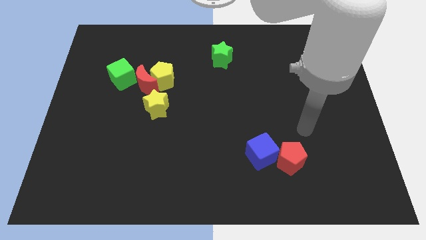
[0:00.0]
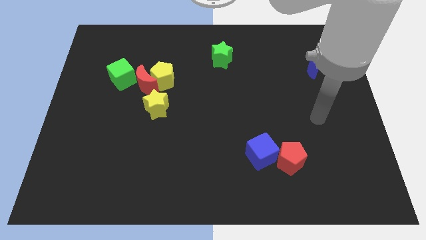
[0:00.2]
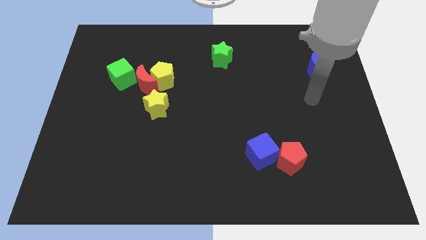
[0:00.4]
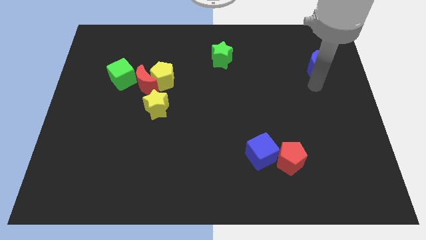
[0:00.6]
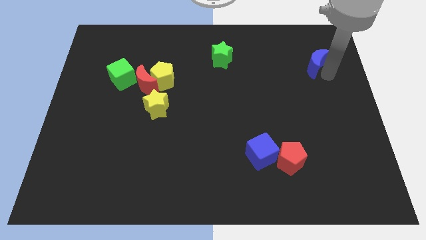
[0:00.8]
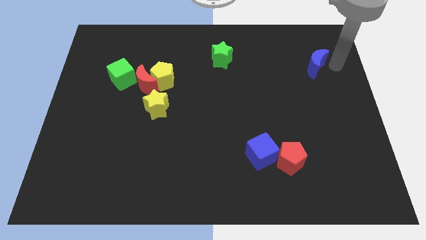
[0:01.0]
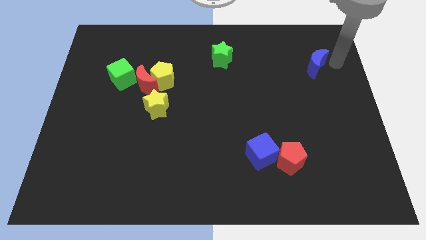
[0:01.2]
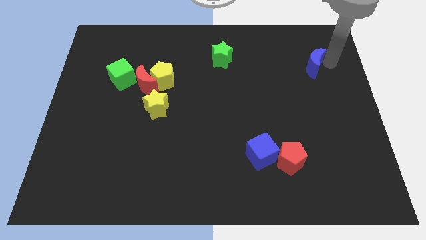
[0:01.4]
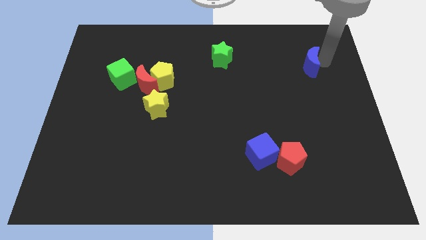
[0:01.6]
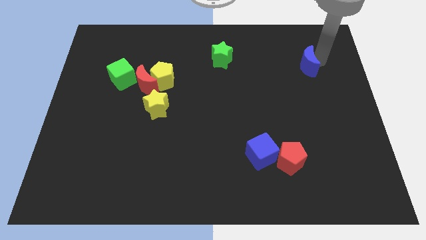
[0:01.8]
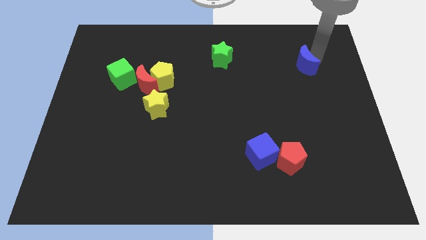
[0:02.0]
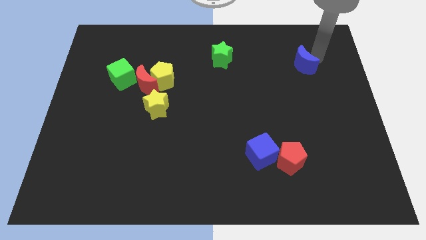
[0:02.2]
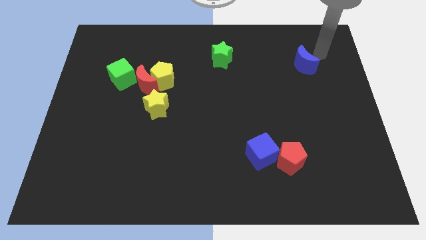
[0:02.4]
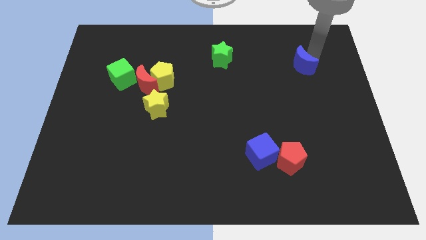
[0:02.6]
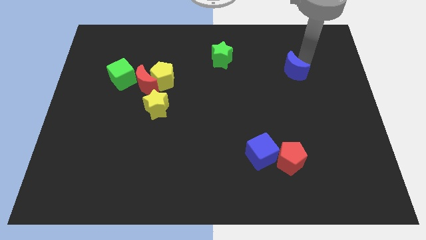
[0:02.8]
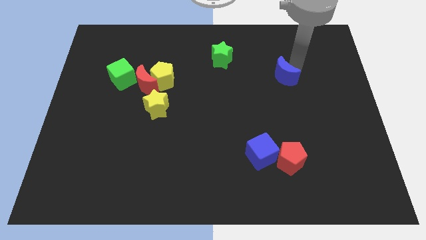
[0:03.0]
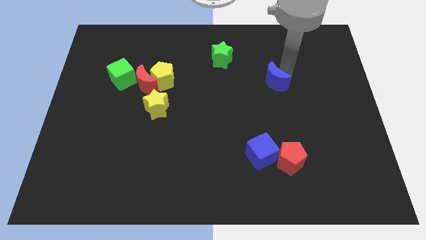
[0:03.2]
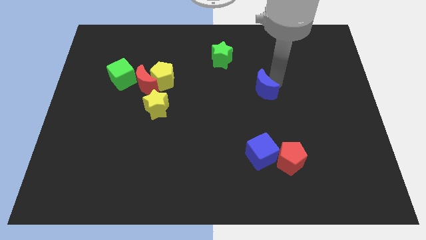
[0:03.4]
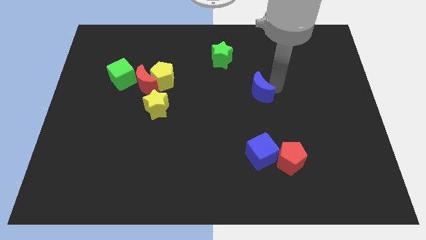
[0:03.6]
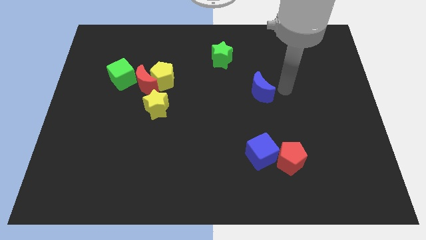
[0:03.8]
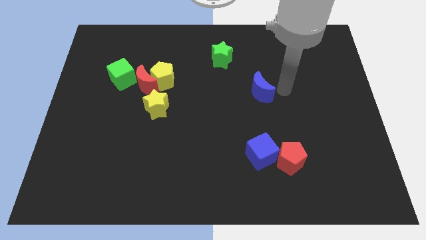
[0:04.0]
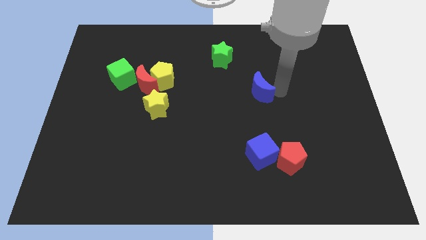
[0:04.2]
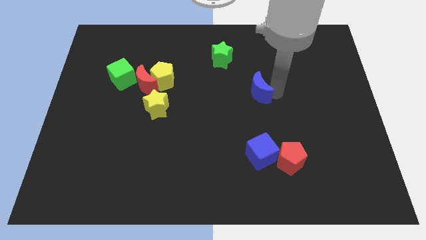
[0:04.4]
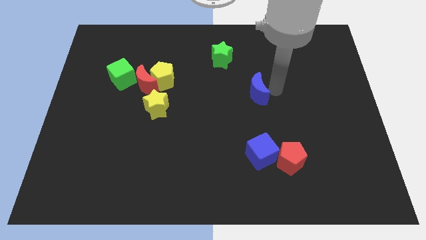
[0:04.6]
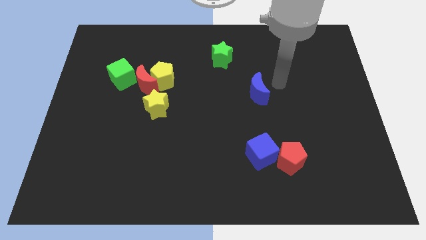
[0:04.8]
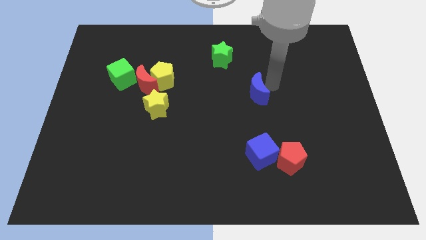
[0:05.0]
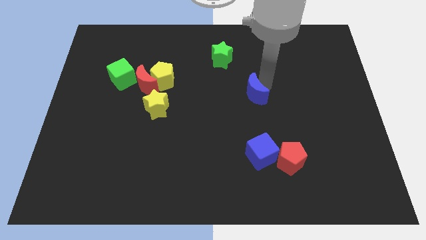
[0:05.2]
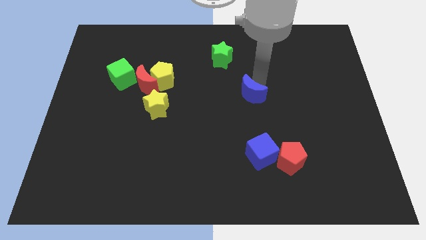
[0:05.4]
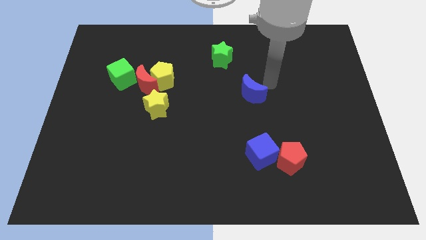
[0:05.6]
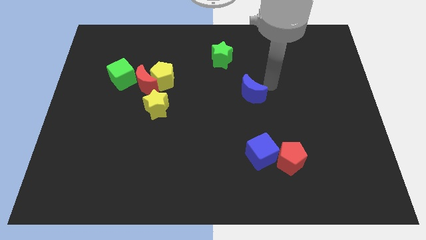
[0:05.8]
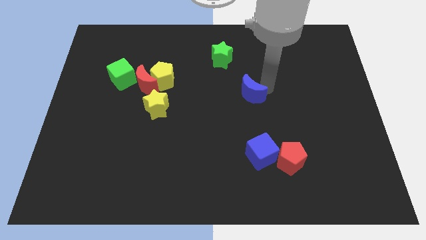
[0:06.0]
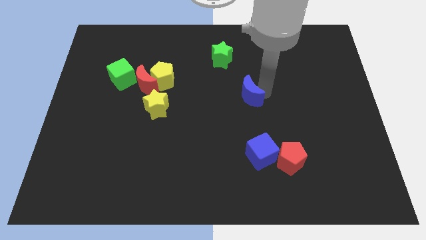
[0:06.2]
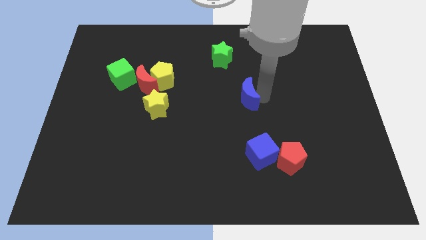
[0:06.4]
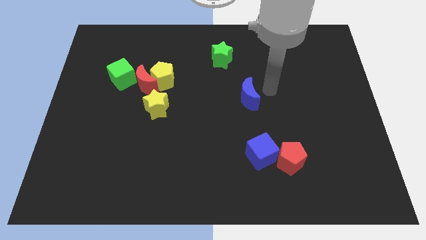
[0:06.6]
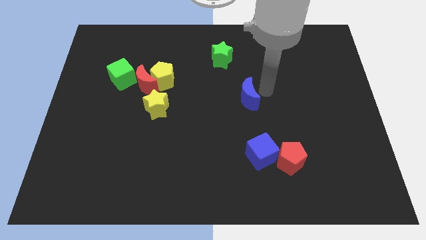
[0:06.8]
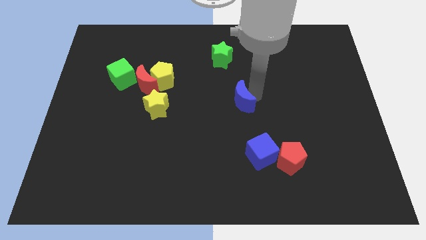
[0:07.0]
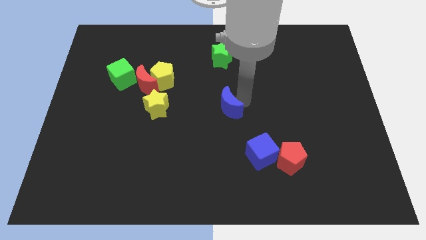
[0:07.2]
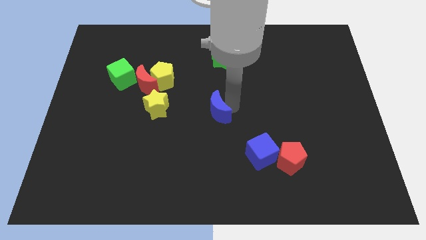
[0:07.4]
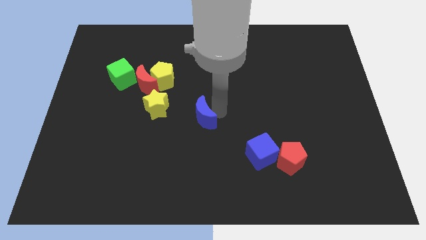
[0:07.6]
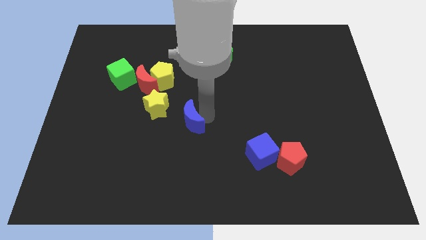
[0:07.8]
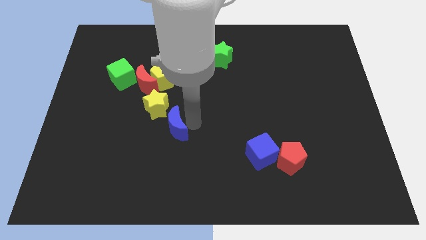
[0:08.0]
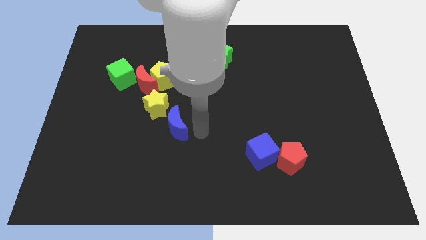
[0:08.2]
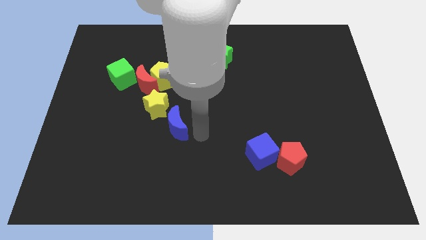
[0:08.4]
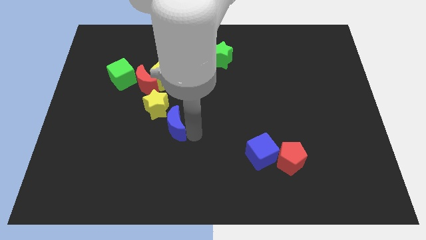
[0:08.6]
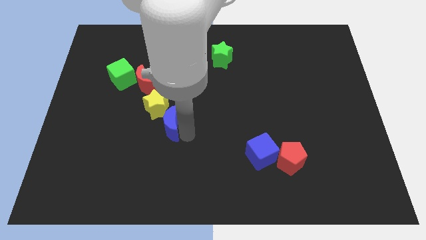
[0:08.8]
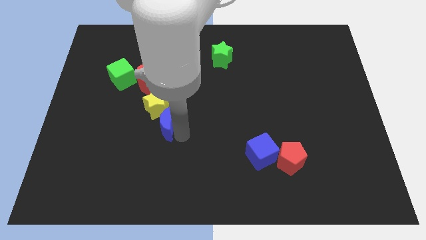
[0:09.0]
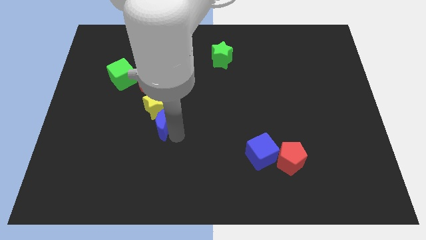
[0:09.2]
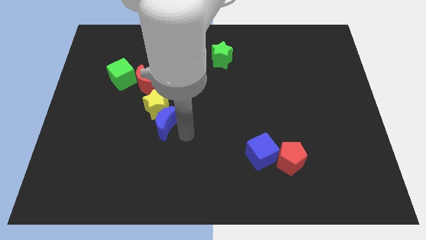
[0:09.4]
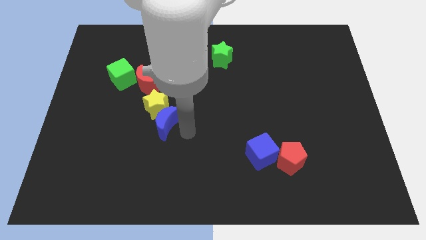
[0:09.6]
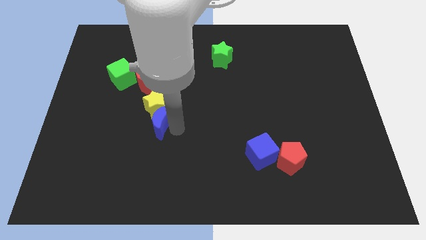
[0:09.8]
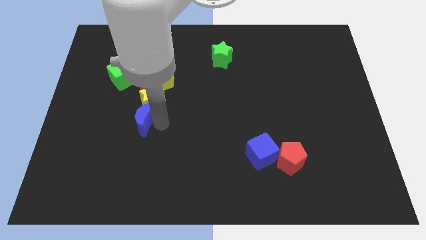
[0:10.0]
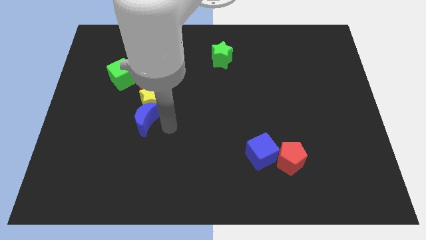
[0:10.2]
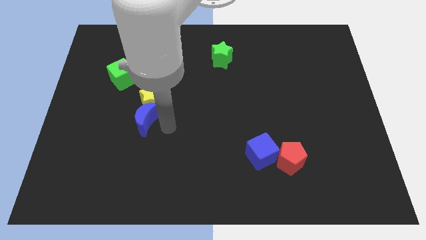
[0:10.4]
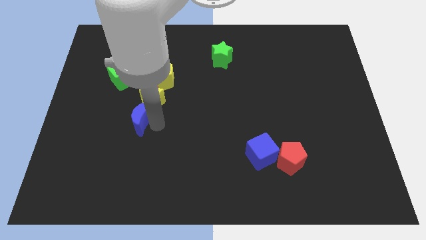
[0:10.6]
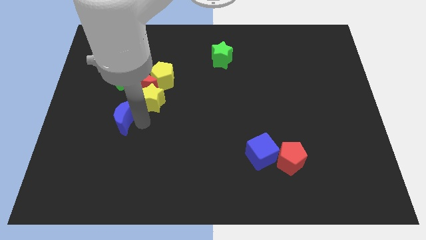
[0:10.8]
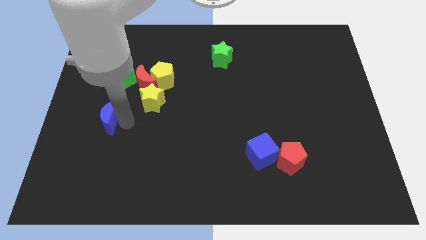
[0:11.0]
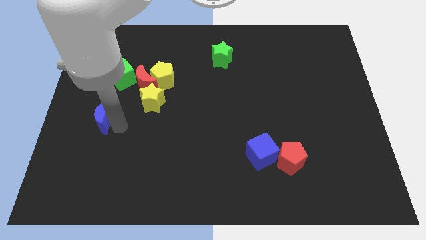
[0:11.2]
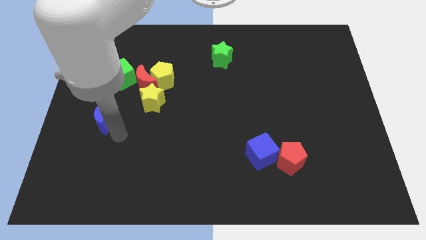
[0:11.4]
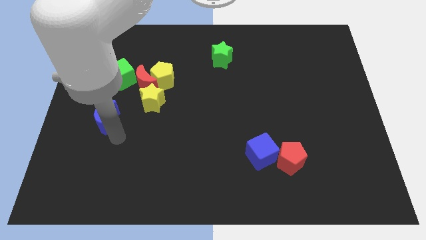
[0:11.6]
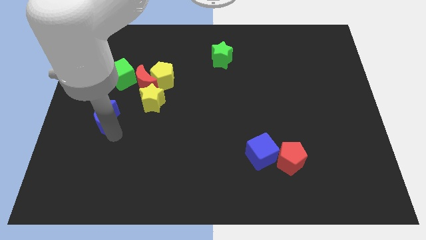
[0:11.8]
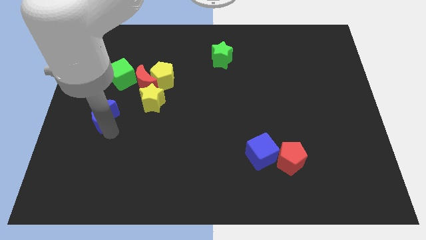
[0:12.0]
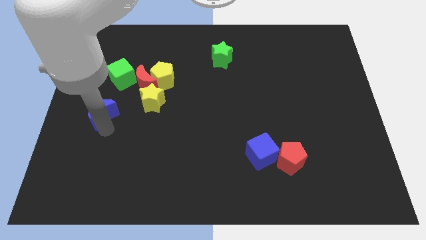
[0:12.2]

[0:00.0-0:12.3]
slide the blue moon to the center left

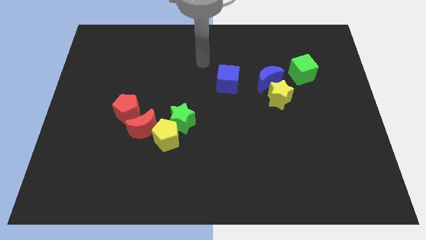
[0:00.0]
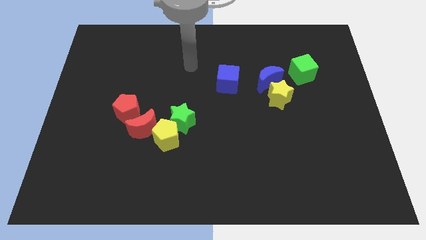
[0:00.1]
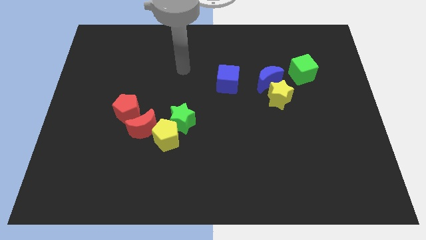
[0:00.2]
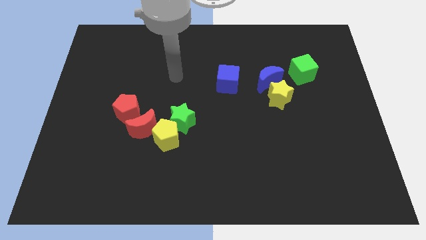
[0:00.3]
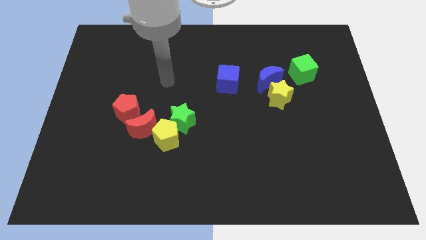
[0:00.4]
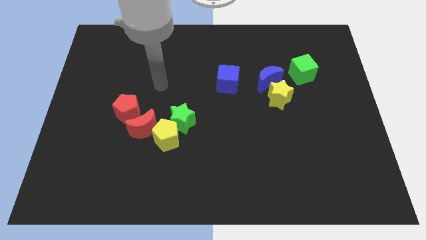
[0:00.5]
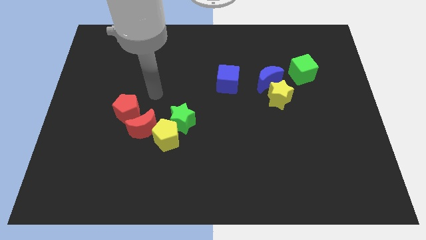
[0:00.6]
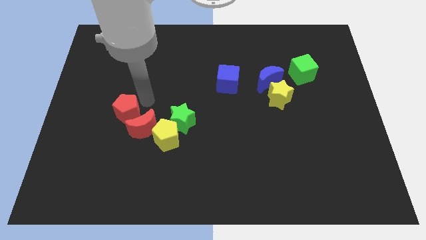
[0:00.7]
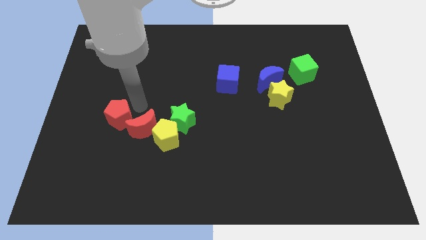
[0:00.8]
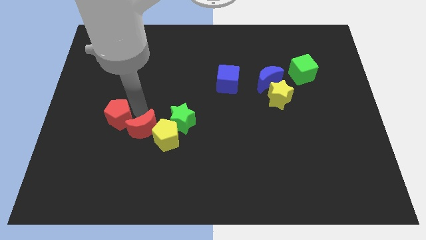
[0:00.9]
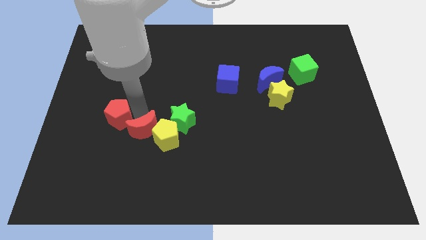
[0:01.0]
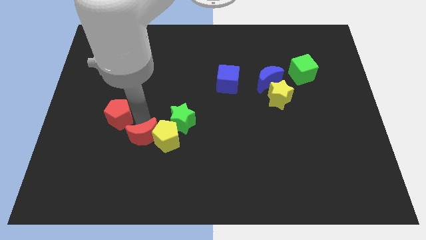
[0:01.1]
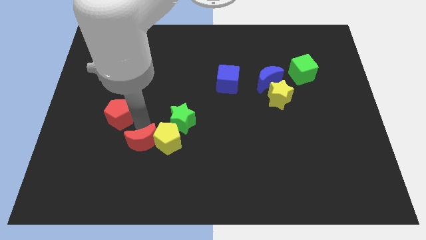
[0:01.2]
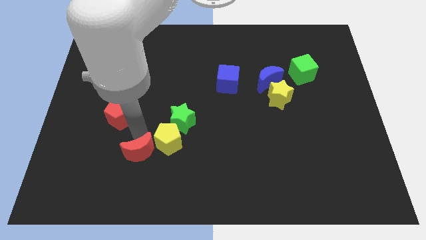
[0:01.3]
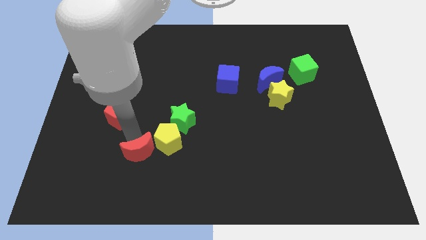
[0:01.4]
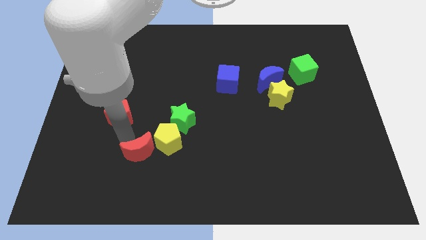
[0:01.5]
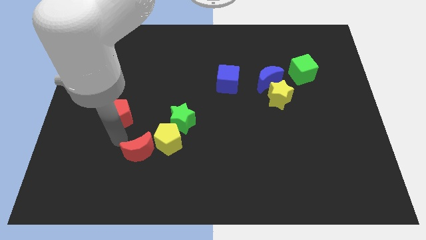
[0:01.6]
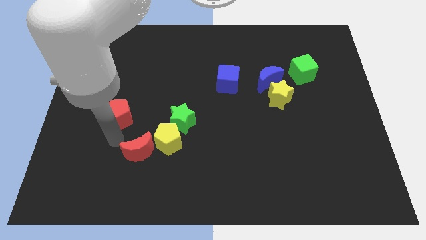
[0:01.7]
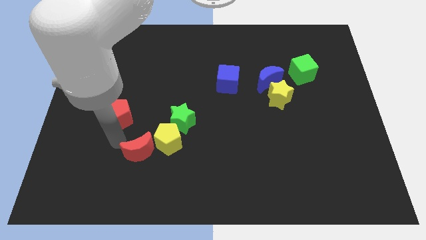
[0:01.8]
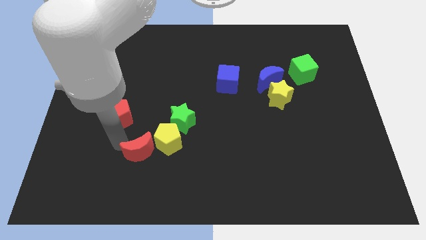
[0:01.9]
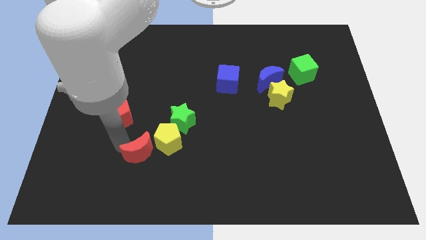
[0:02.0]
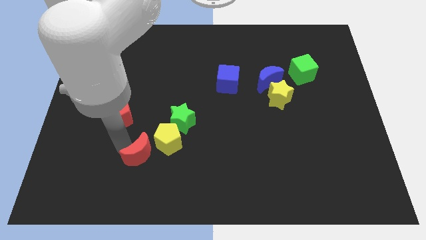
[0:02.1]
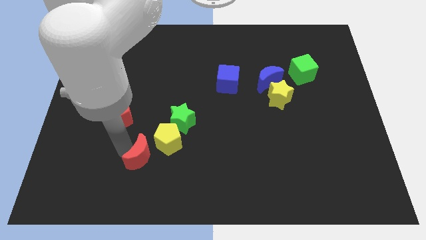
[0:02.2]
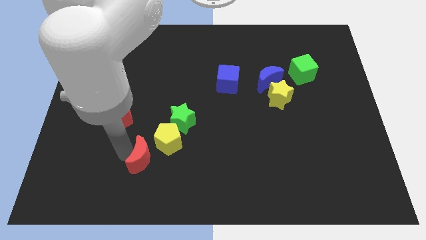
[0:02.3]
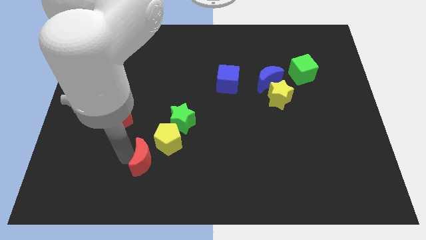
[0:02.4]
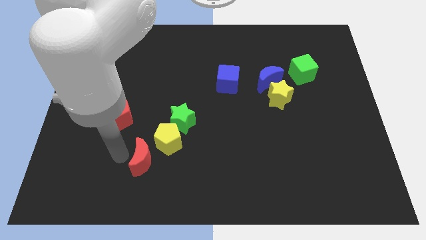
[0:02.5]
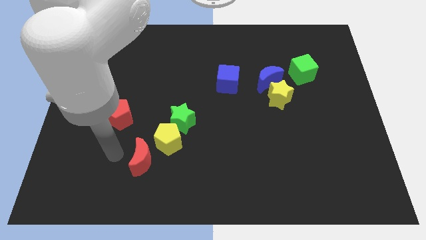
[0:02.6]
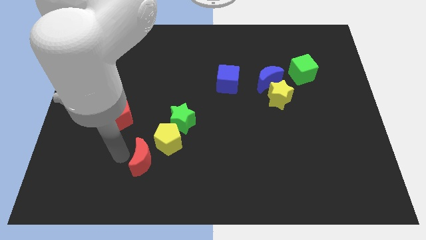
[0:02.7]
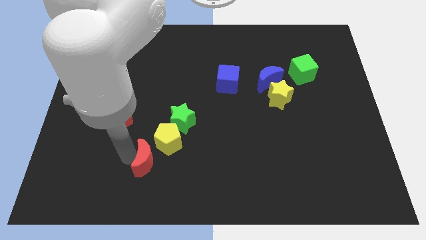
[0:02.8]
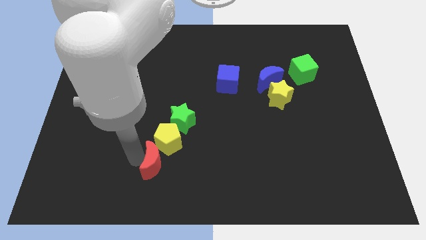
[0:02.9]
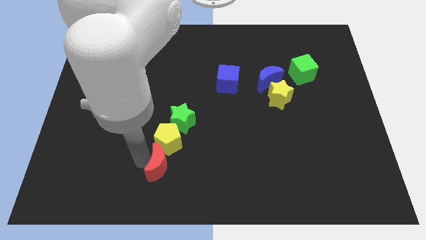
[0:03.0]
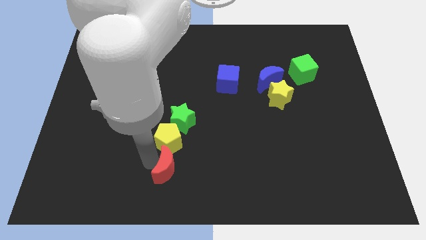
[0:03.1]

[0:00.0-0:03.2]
put the red moon to the bottom side
